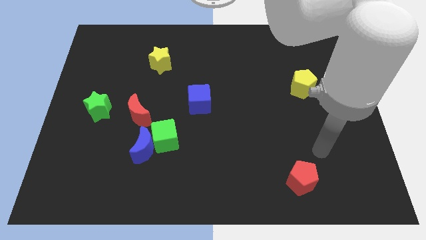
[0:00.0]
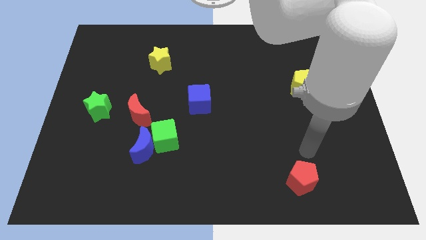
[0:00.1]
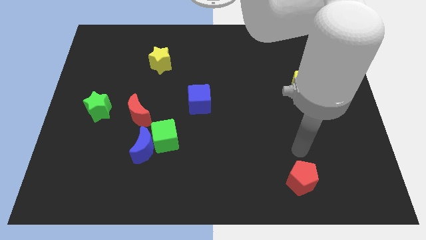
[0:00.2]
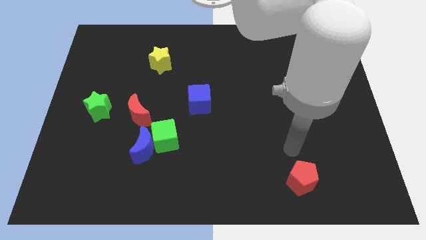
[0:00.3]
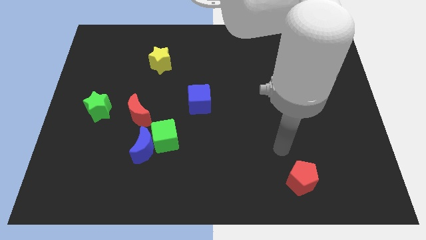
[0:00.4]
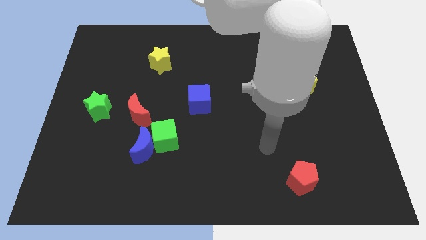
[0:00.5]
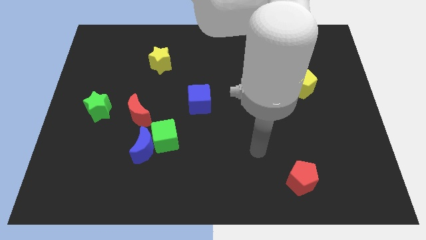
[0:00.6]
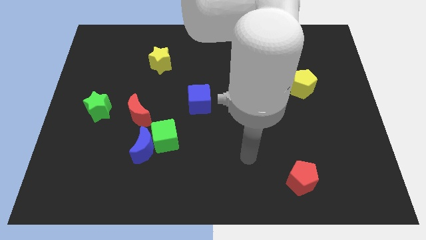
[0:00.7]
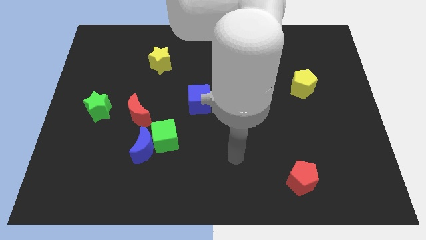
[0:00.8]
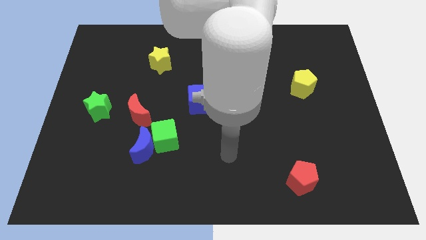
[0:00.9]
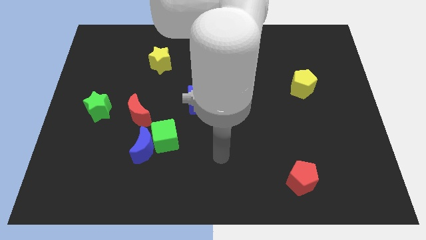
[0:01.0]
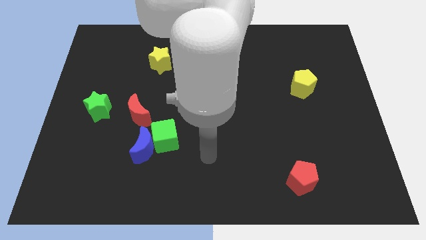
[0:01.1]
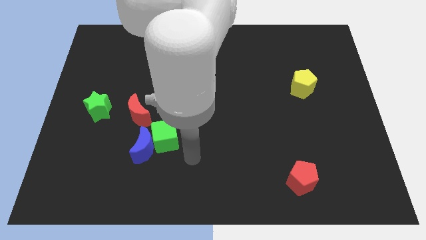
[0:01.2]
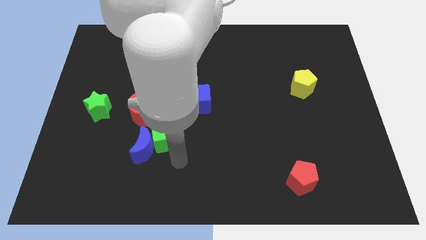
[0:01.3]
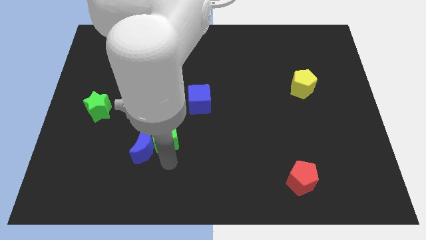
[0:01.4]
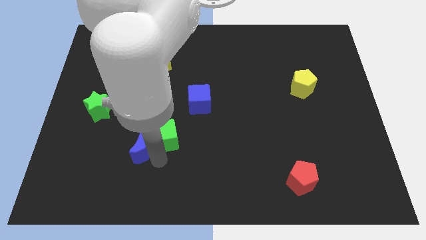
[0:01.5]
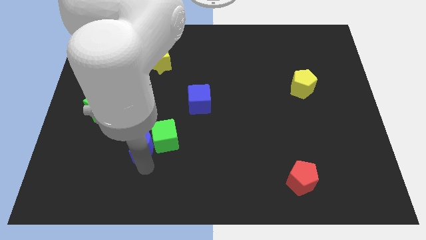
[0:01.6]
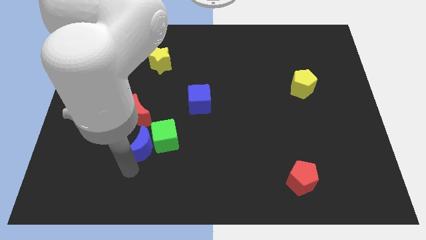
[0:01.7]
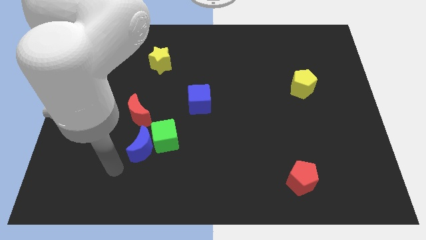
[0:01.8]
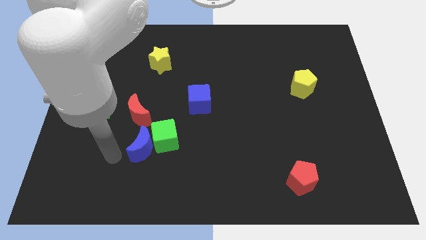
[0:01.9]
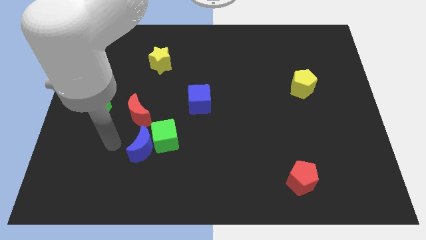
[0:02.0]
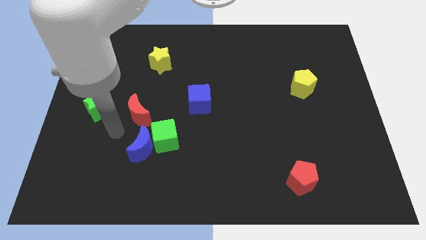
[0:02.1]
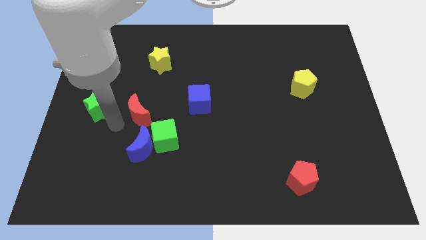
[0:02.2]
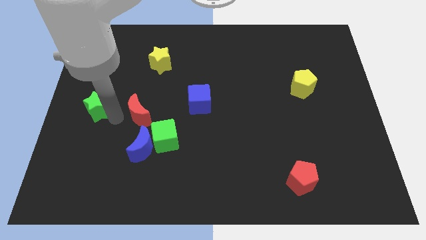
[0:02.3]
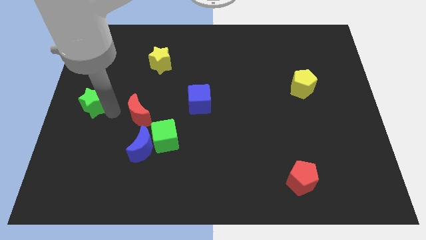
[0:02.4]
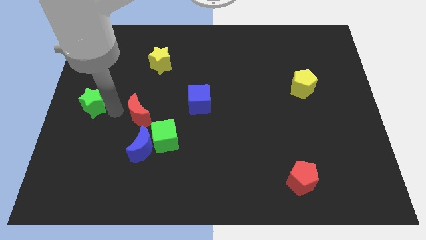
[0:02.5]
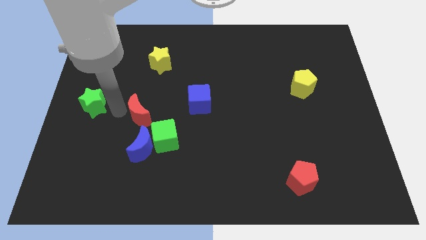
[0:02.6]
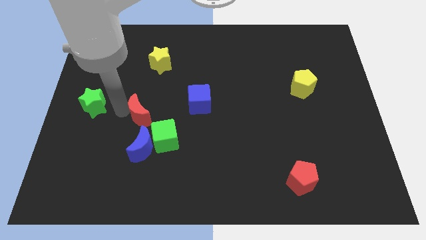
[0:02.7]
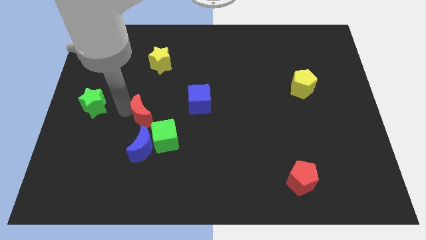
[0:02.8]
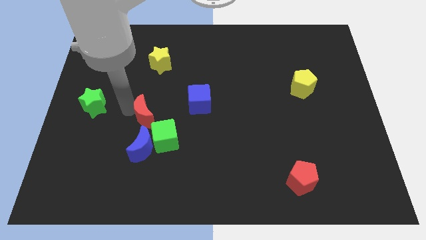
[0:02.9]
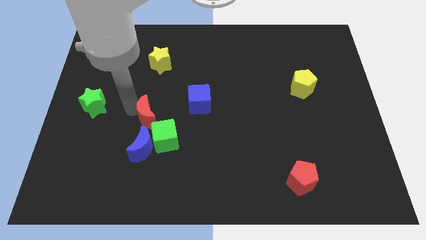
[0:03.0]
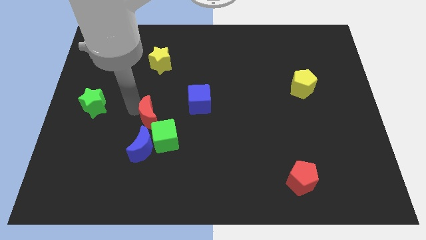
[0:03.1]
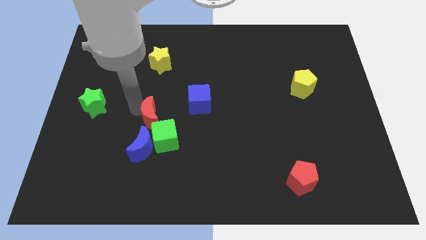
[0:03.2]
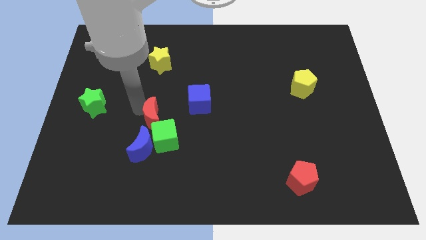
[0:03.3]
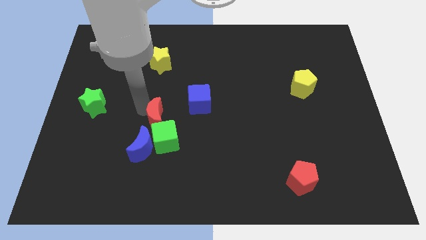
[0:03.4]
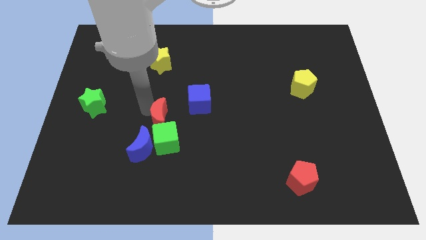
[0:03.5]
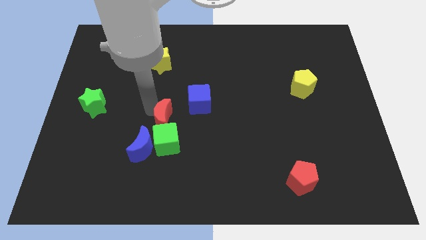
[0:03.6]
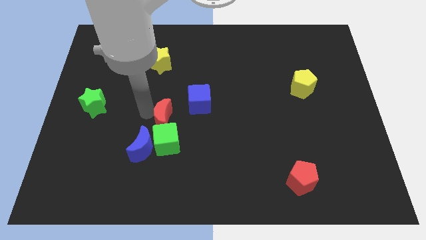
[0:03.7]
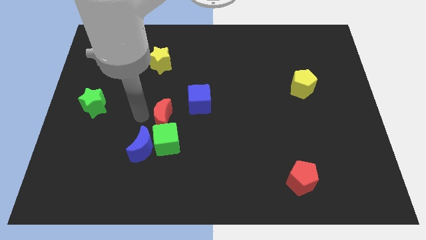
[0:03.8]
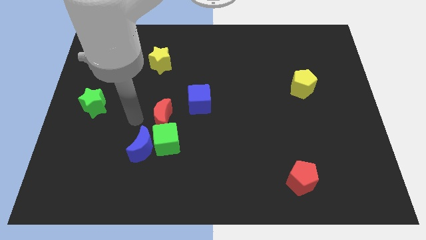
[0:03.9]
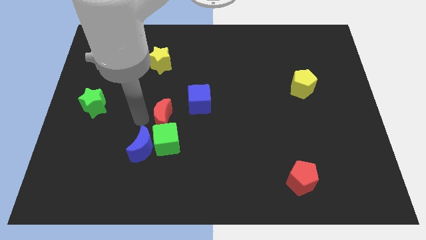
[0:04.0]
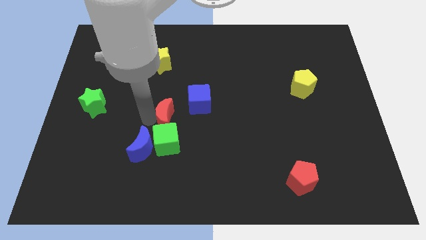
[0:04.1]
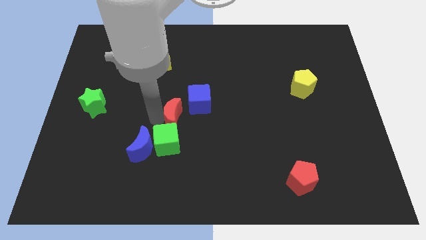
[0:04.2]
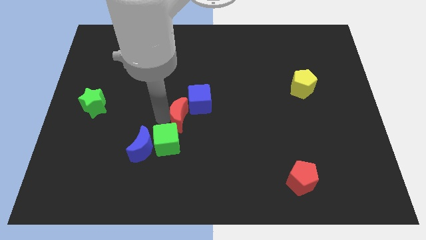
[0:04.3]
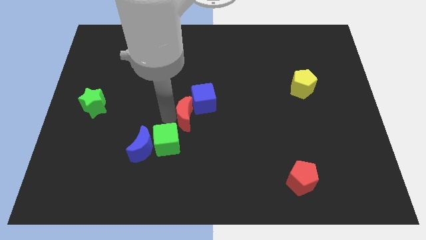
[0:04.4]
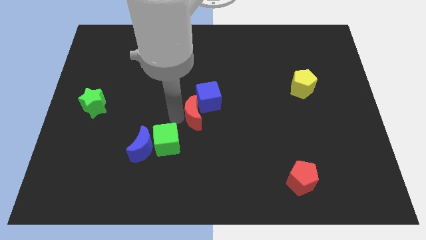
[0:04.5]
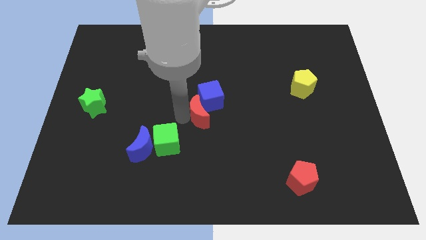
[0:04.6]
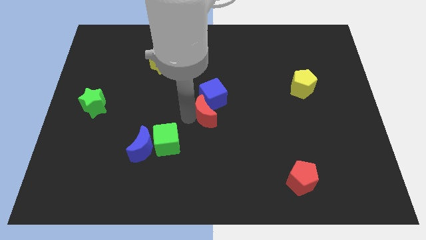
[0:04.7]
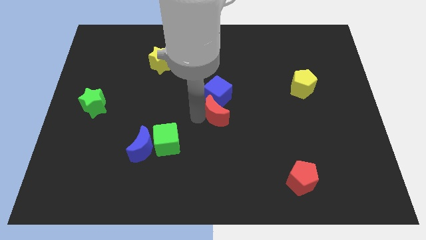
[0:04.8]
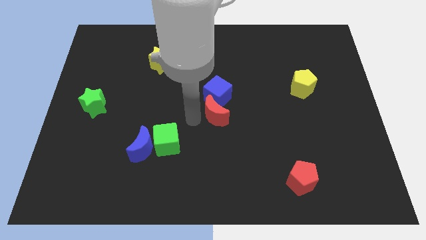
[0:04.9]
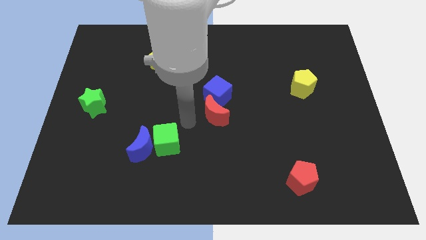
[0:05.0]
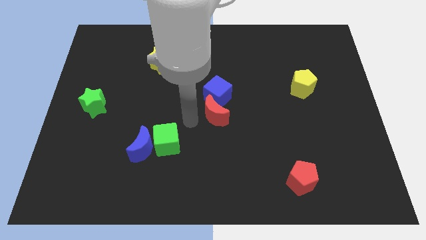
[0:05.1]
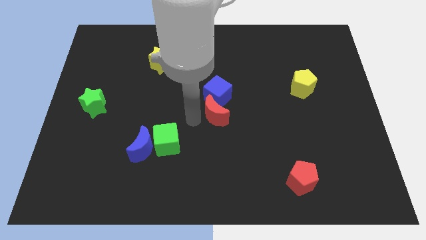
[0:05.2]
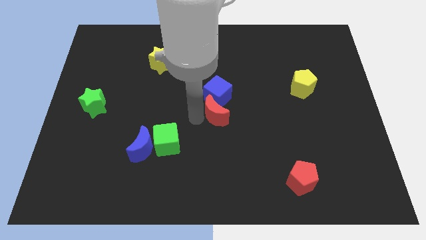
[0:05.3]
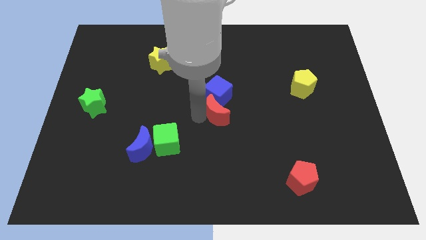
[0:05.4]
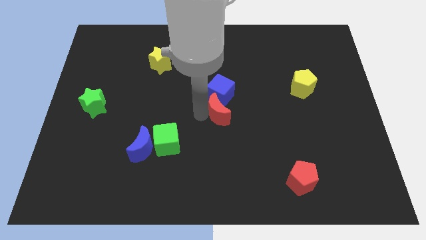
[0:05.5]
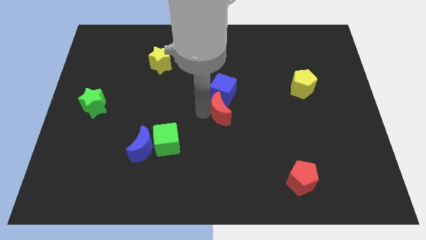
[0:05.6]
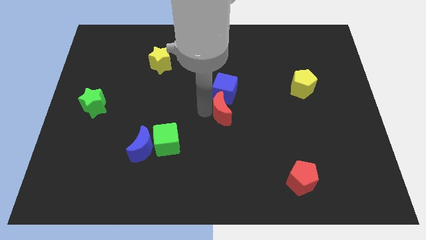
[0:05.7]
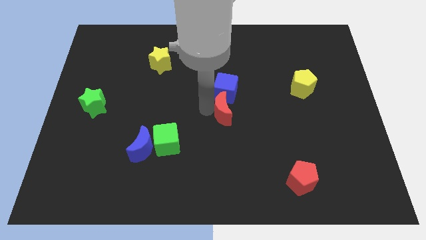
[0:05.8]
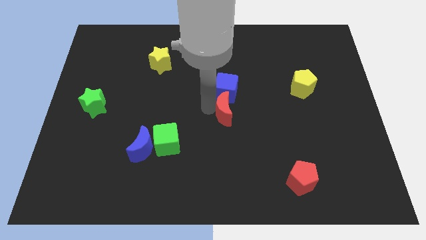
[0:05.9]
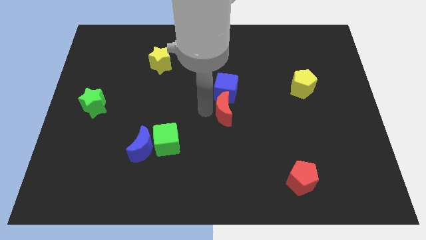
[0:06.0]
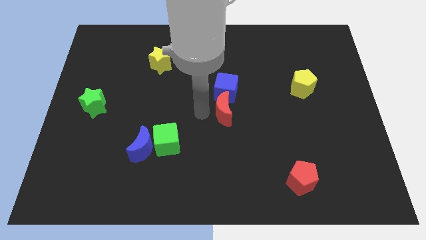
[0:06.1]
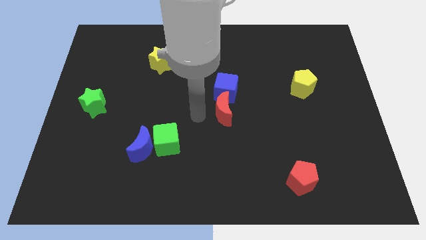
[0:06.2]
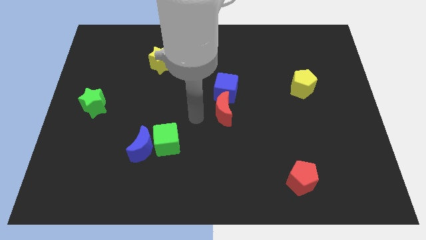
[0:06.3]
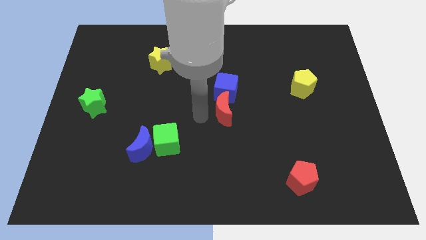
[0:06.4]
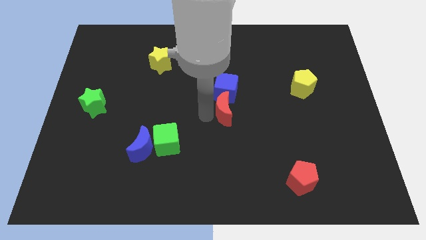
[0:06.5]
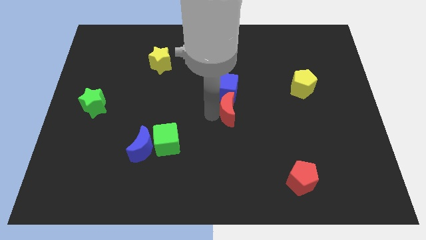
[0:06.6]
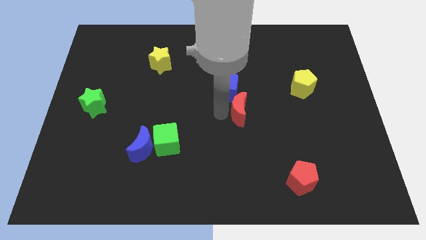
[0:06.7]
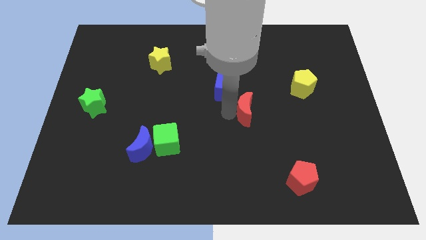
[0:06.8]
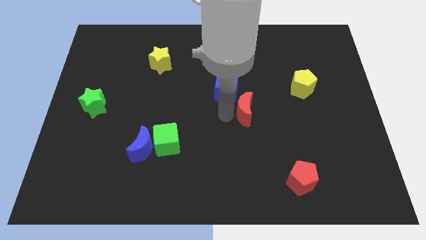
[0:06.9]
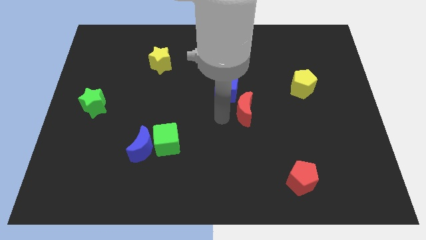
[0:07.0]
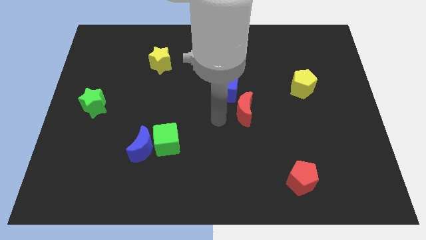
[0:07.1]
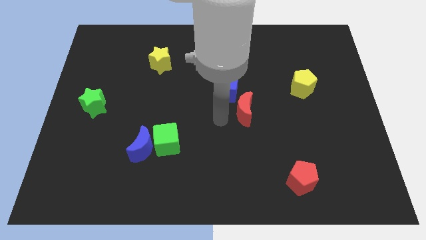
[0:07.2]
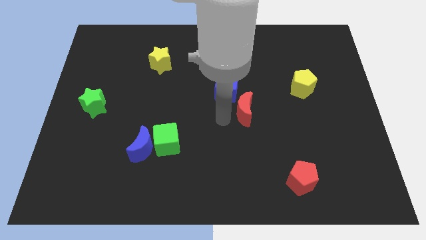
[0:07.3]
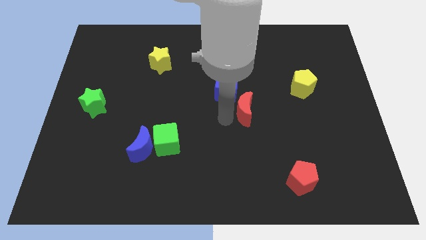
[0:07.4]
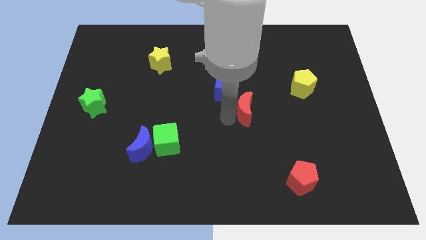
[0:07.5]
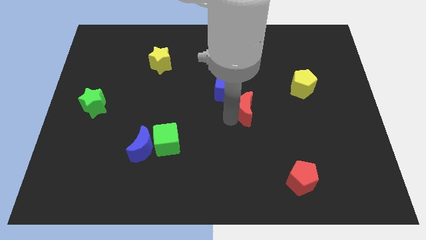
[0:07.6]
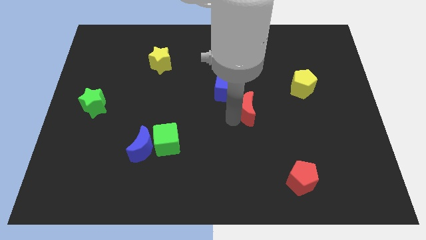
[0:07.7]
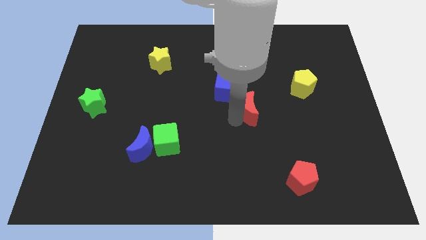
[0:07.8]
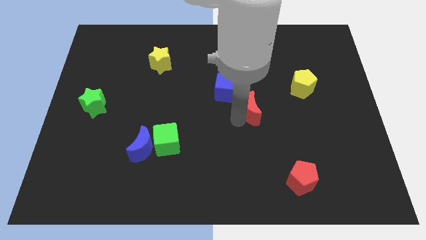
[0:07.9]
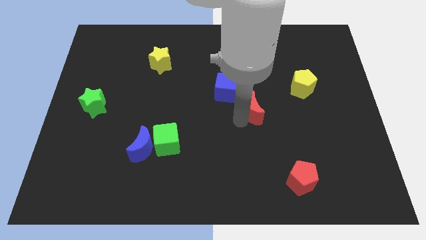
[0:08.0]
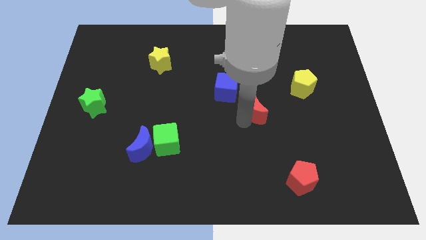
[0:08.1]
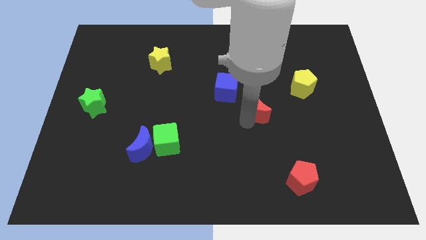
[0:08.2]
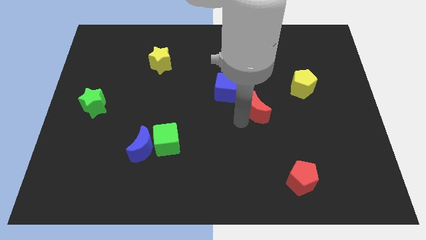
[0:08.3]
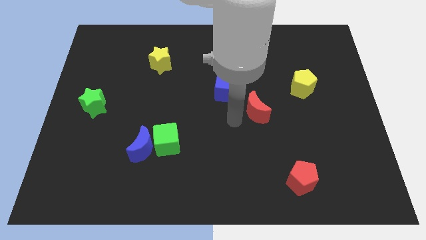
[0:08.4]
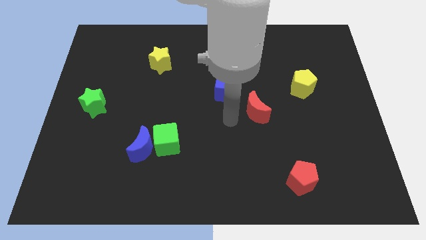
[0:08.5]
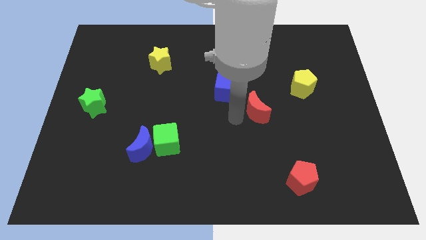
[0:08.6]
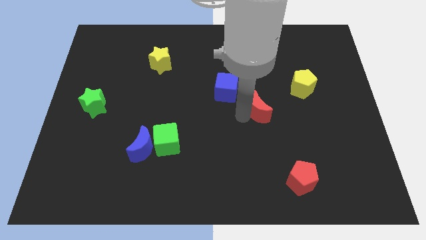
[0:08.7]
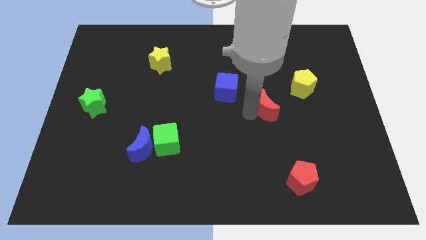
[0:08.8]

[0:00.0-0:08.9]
move the red moon diagonally down and to the left of the yellow pentagon
